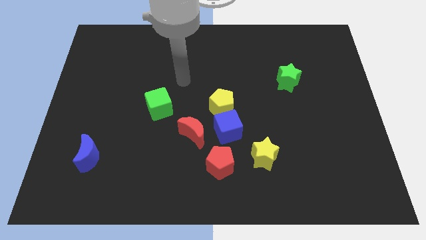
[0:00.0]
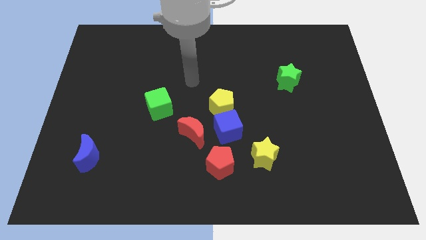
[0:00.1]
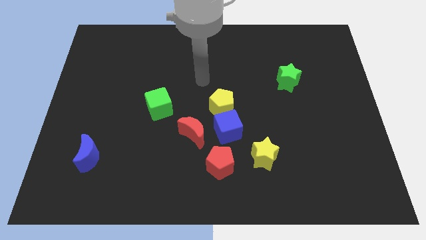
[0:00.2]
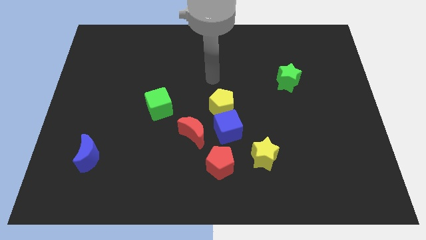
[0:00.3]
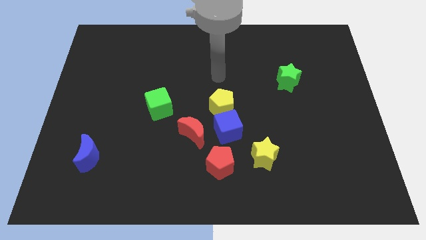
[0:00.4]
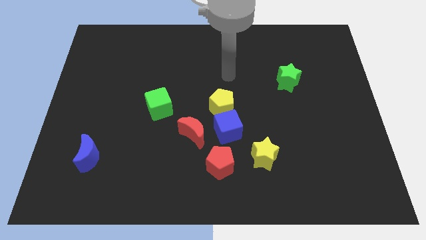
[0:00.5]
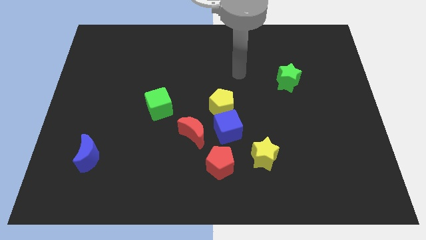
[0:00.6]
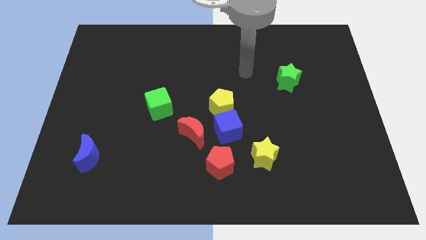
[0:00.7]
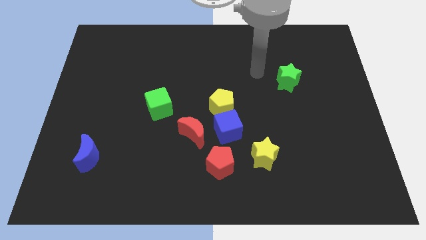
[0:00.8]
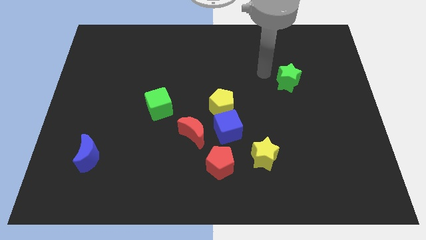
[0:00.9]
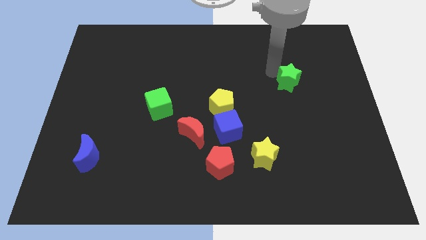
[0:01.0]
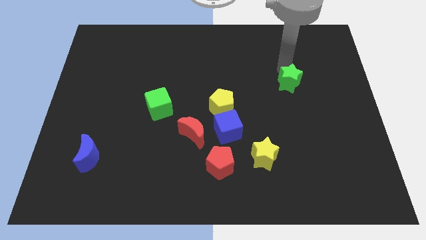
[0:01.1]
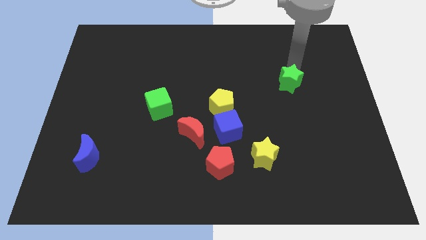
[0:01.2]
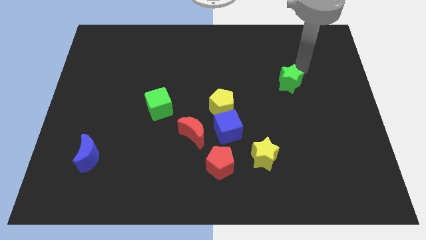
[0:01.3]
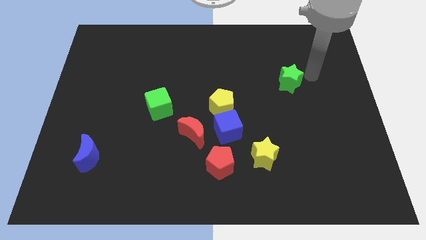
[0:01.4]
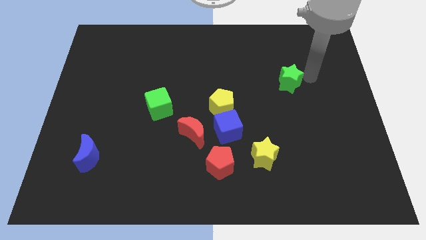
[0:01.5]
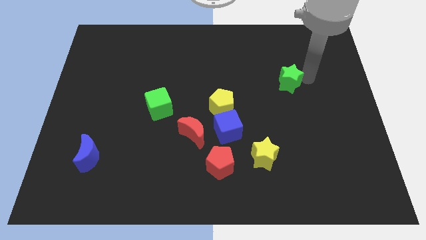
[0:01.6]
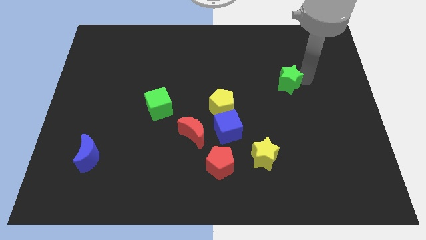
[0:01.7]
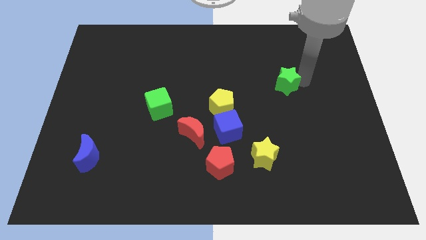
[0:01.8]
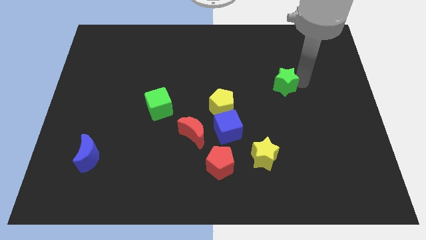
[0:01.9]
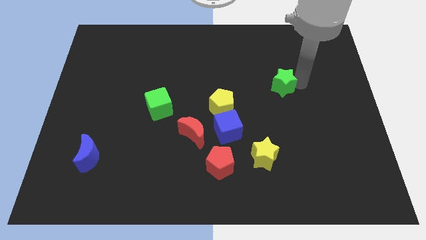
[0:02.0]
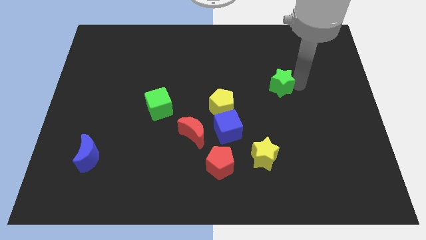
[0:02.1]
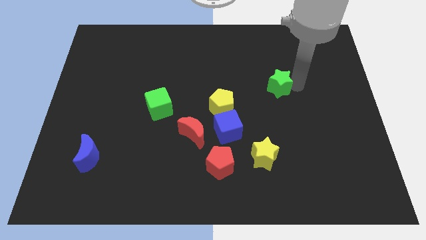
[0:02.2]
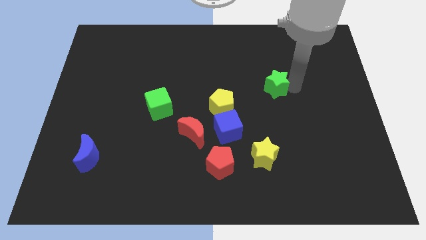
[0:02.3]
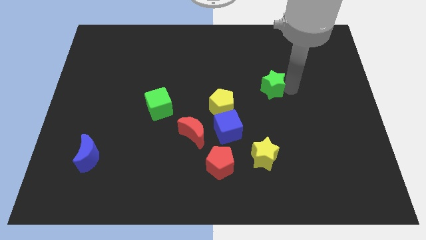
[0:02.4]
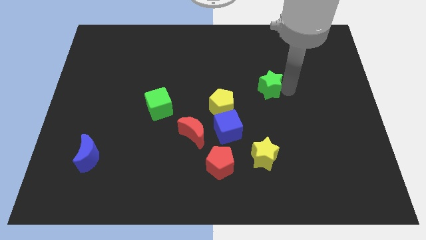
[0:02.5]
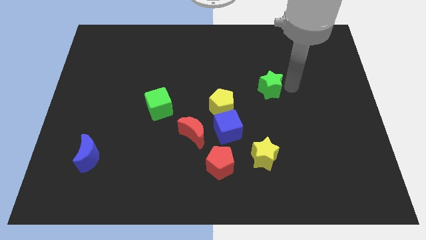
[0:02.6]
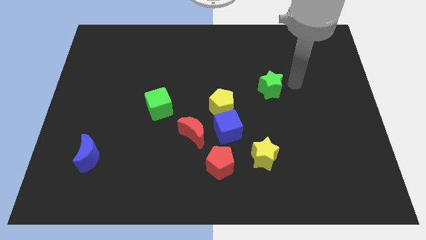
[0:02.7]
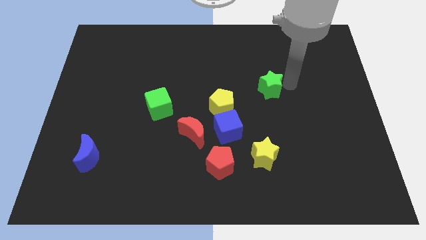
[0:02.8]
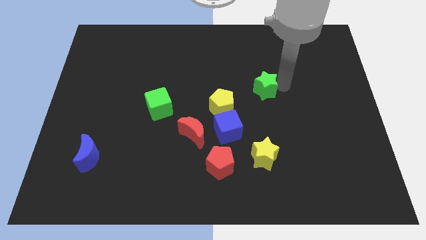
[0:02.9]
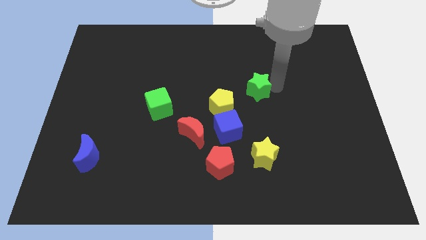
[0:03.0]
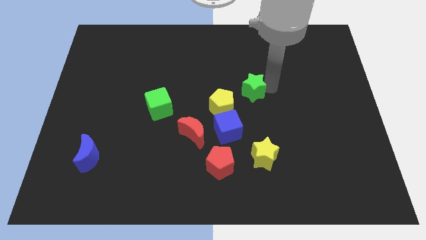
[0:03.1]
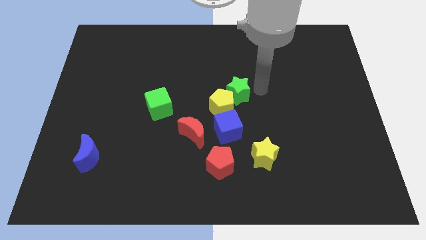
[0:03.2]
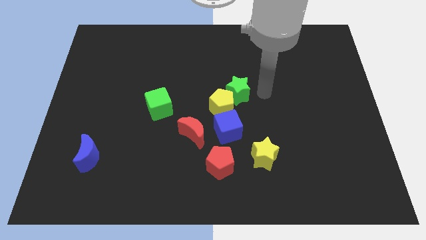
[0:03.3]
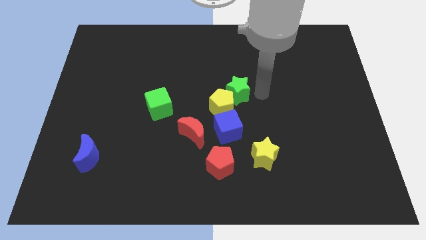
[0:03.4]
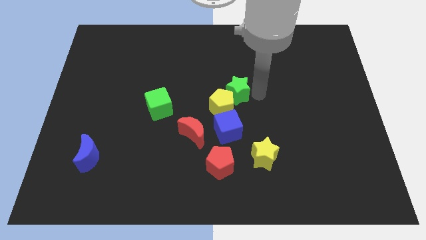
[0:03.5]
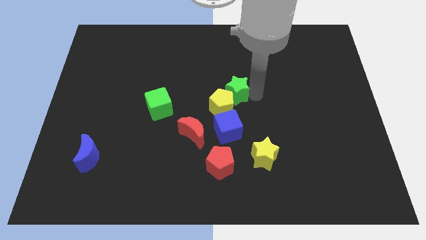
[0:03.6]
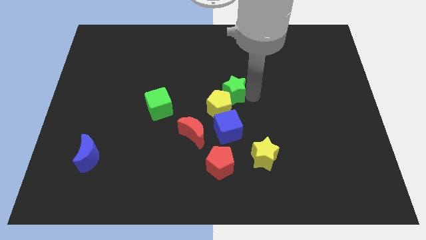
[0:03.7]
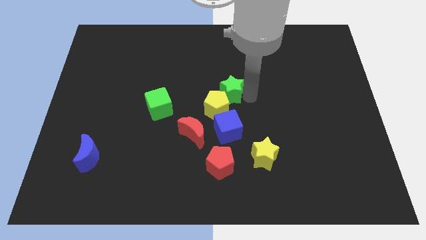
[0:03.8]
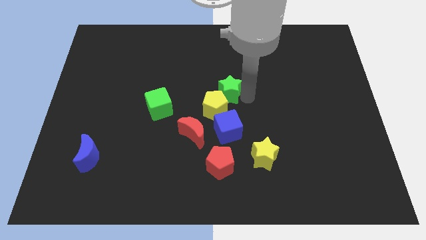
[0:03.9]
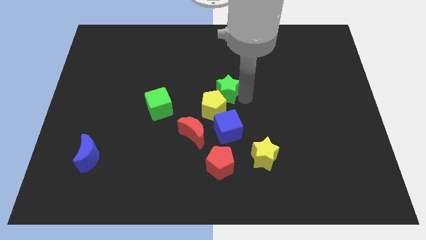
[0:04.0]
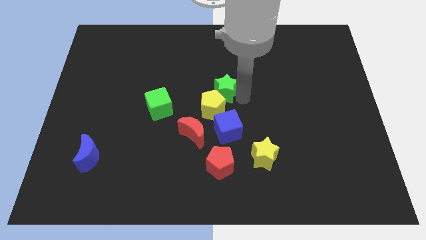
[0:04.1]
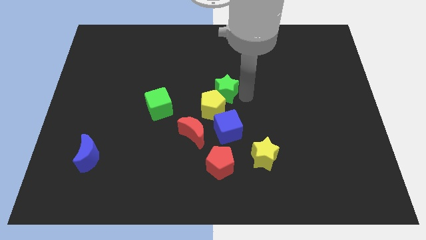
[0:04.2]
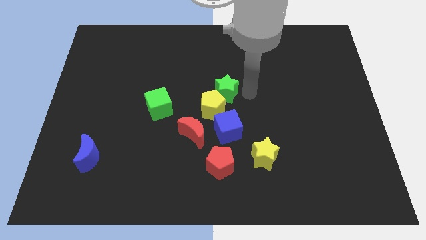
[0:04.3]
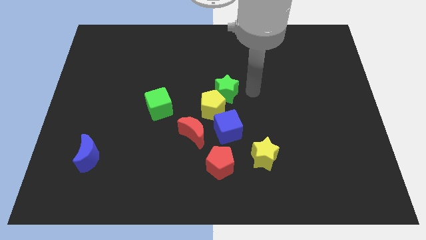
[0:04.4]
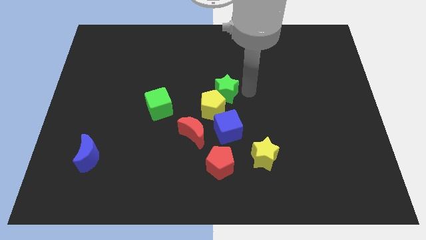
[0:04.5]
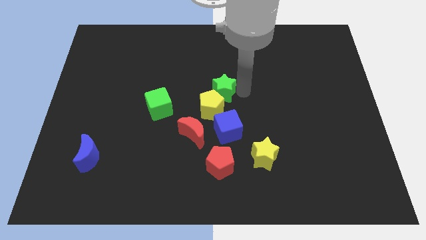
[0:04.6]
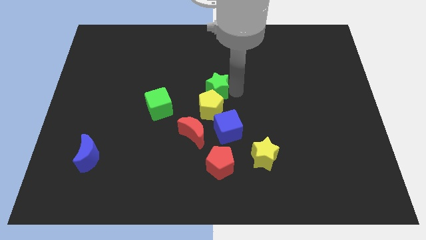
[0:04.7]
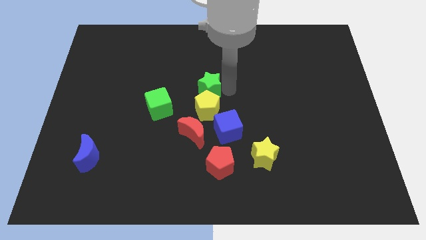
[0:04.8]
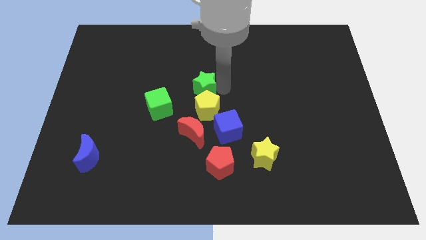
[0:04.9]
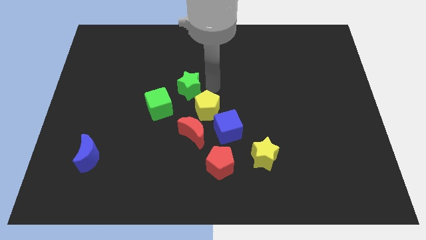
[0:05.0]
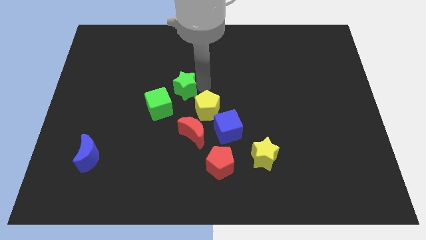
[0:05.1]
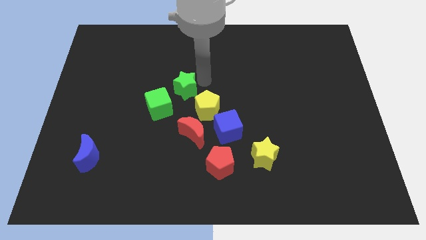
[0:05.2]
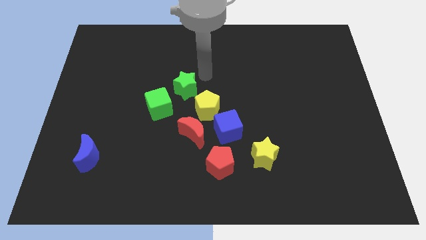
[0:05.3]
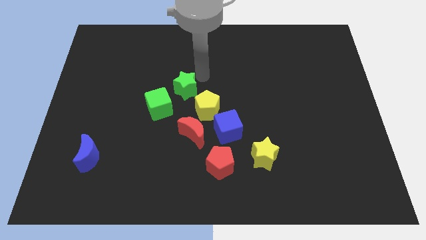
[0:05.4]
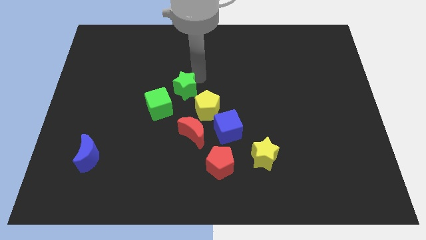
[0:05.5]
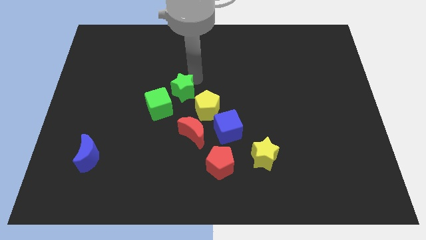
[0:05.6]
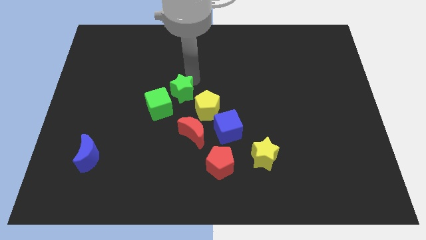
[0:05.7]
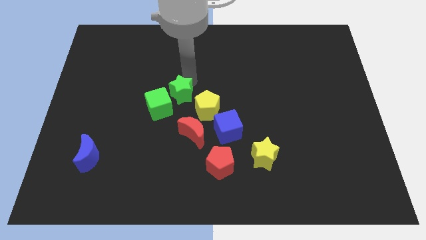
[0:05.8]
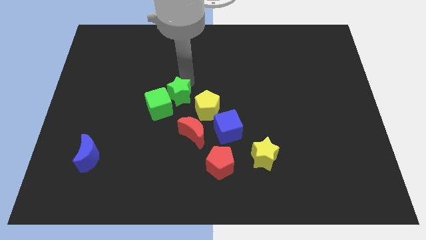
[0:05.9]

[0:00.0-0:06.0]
move the green star close to the green cube

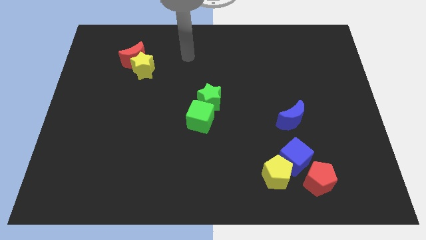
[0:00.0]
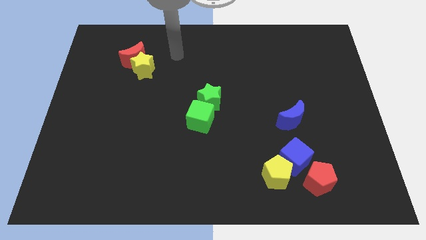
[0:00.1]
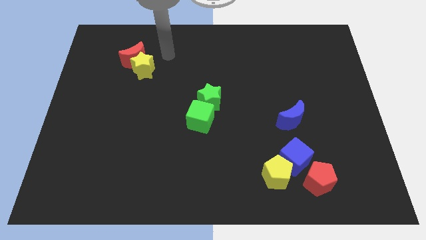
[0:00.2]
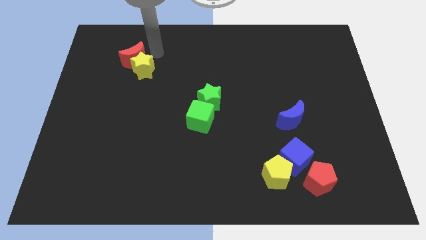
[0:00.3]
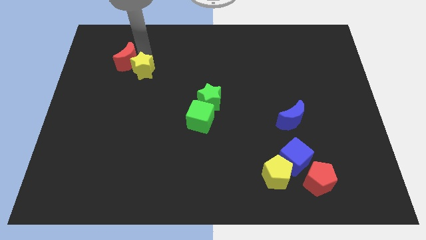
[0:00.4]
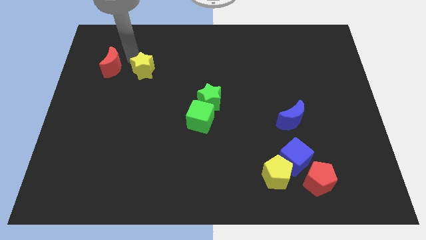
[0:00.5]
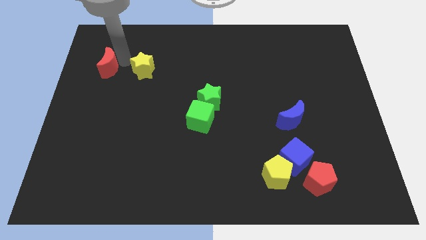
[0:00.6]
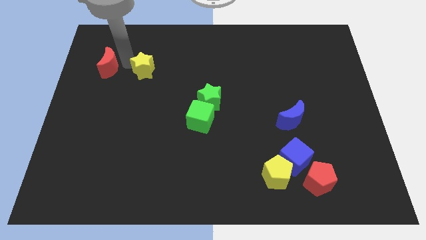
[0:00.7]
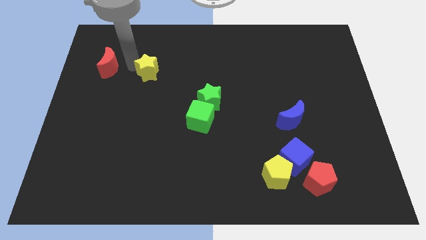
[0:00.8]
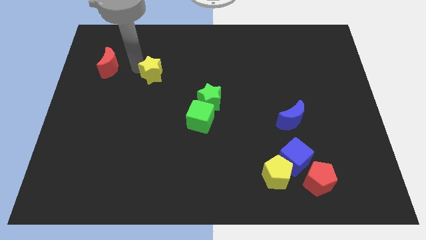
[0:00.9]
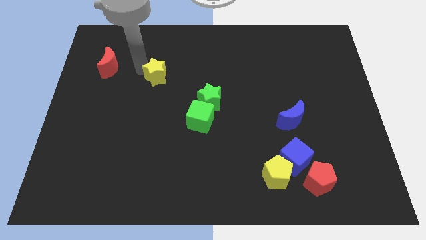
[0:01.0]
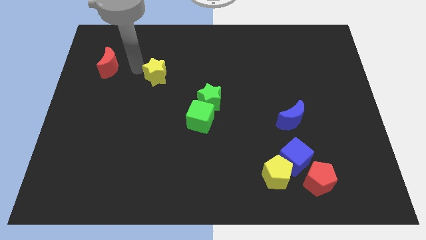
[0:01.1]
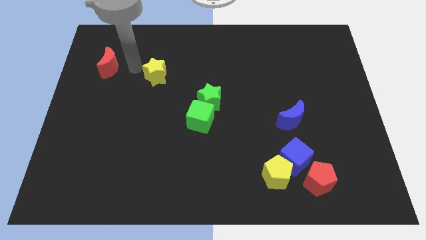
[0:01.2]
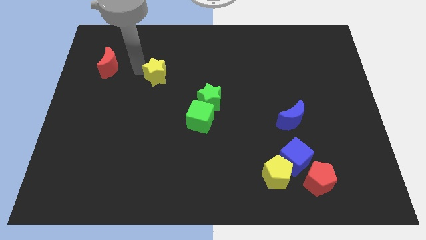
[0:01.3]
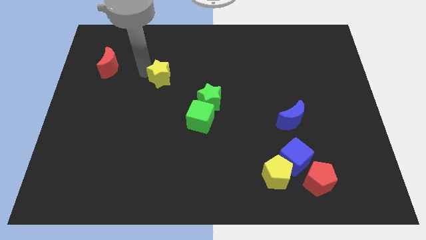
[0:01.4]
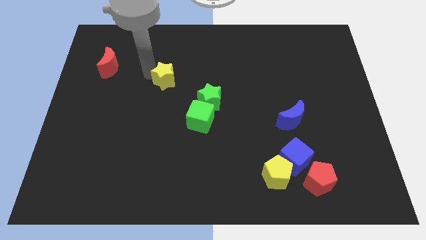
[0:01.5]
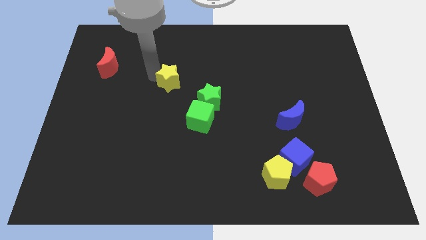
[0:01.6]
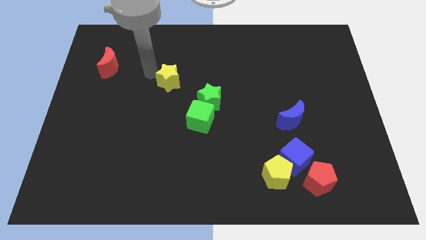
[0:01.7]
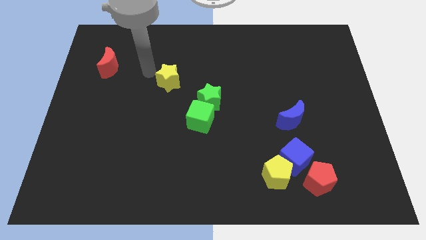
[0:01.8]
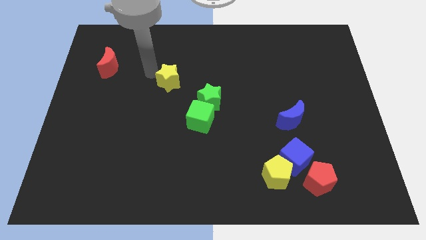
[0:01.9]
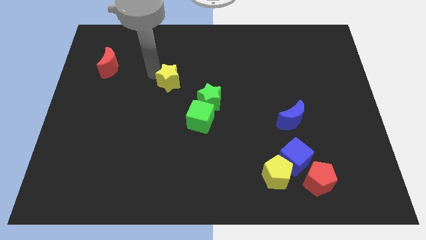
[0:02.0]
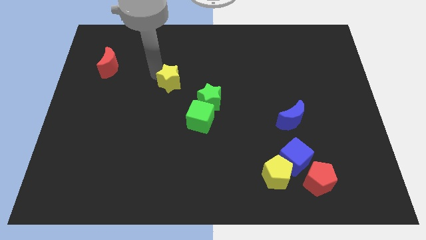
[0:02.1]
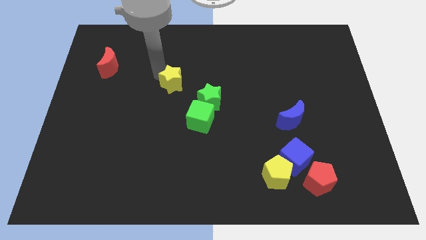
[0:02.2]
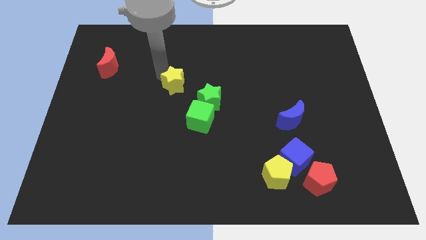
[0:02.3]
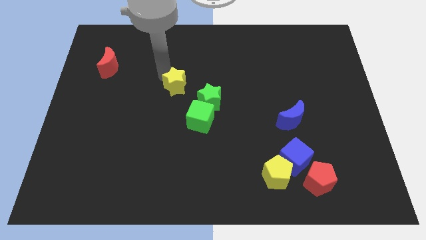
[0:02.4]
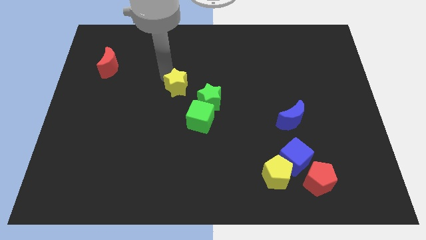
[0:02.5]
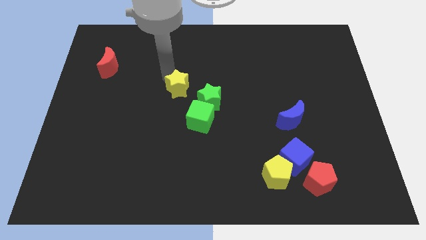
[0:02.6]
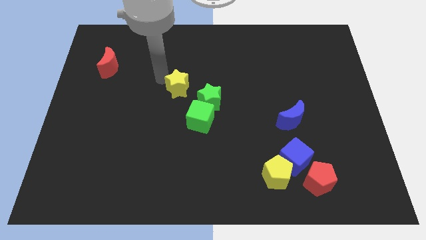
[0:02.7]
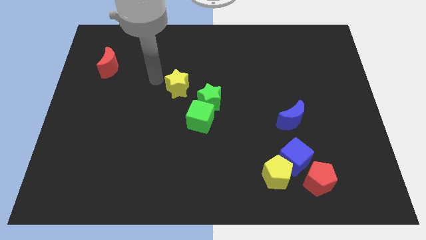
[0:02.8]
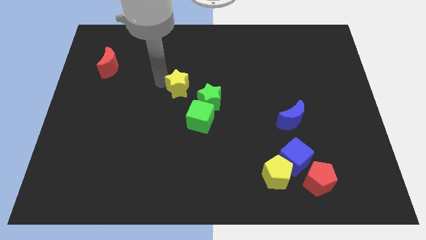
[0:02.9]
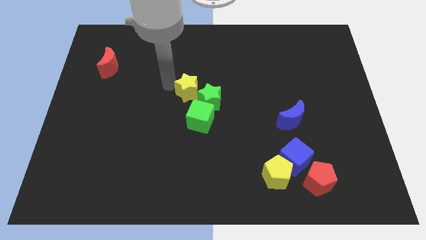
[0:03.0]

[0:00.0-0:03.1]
push the yellow star towards the green star
